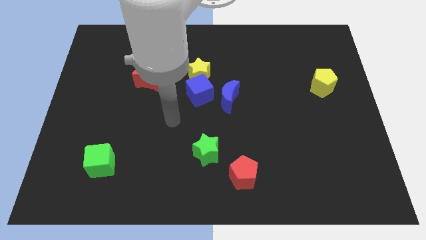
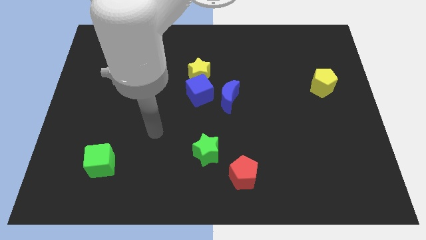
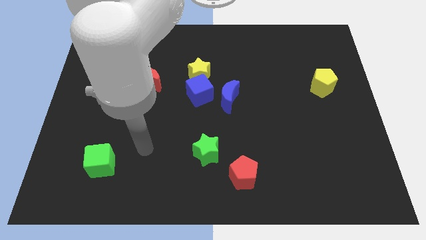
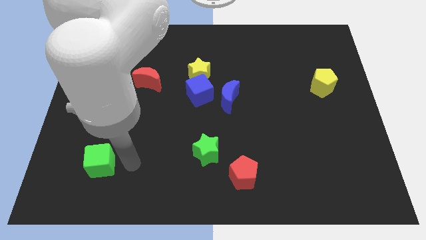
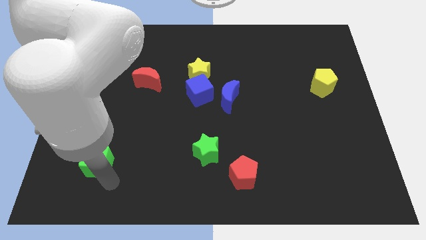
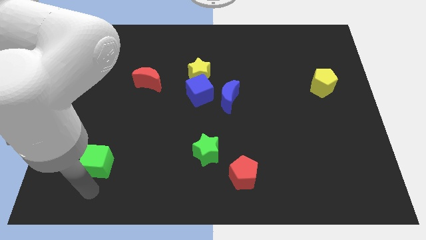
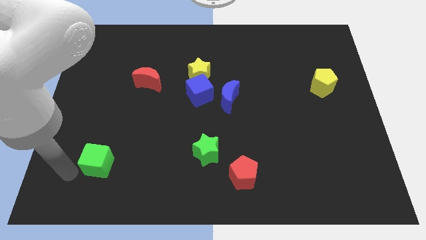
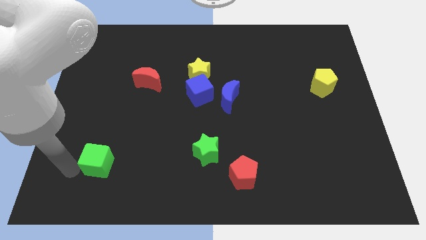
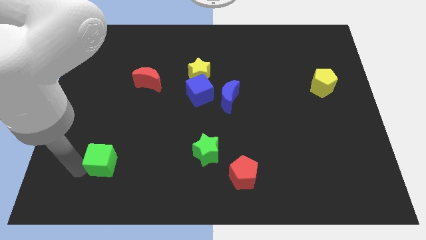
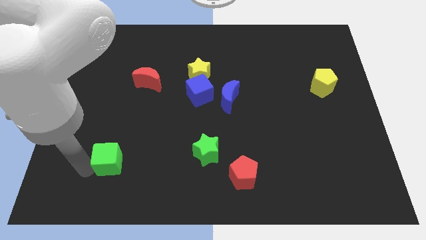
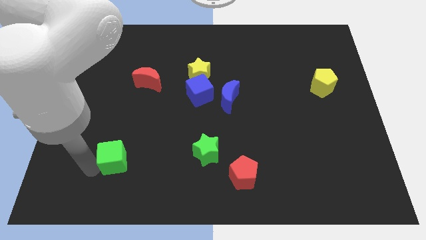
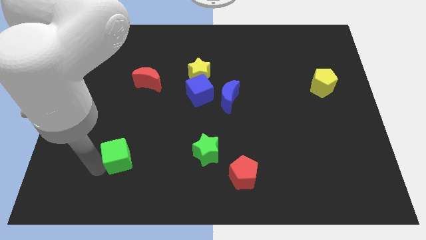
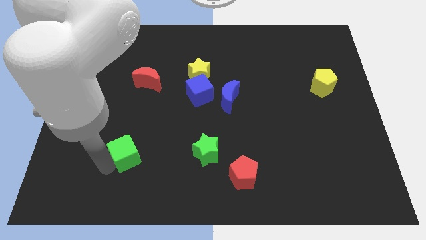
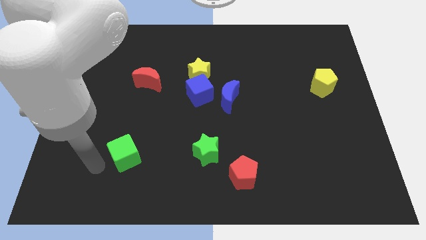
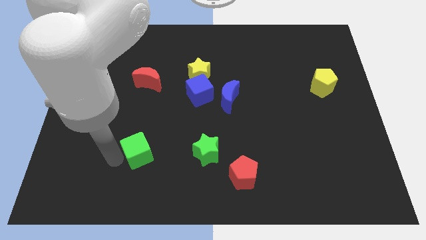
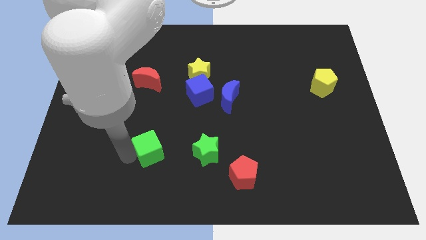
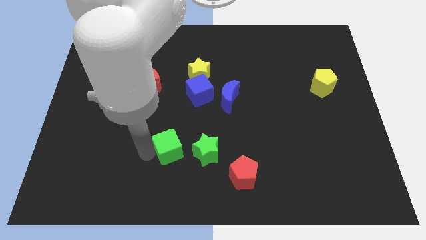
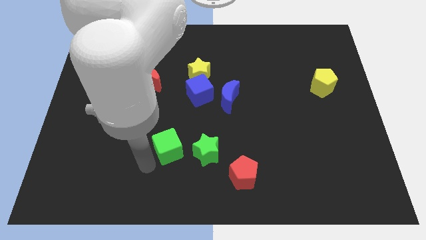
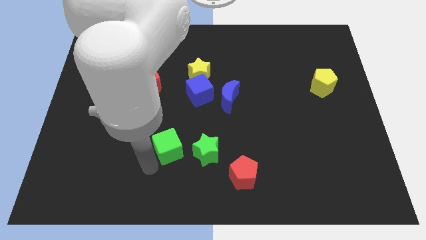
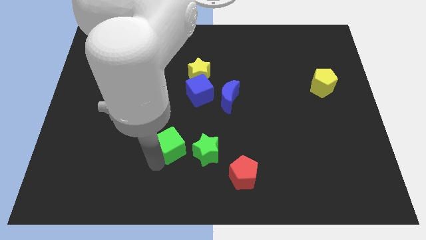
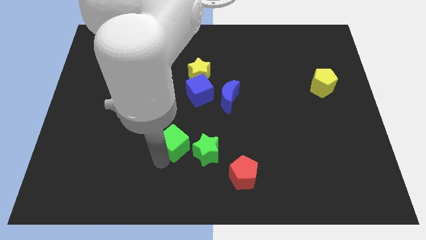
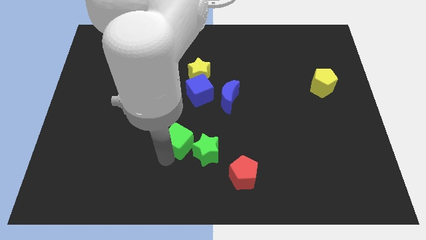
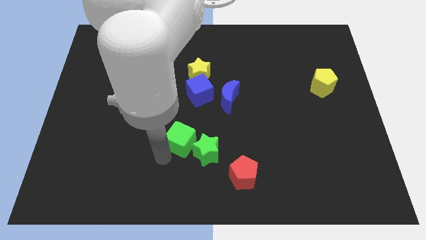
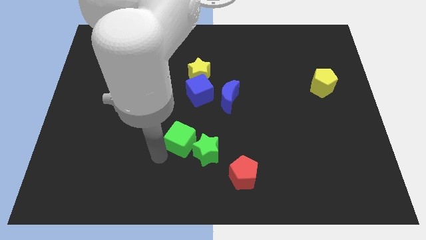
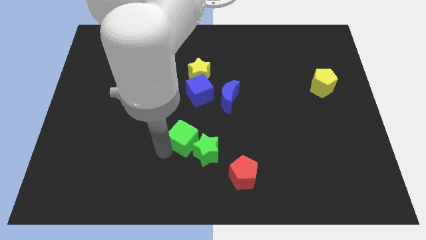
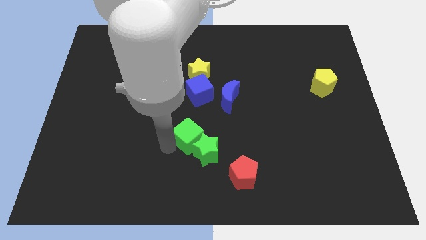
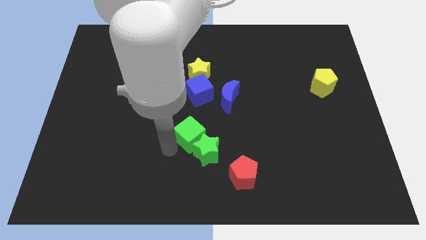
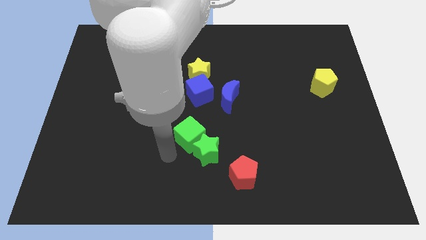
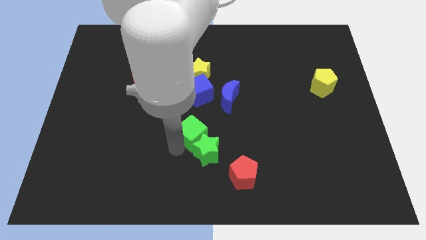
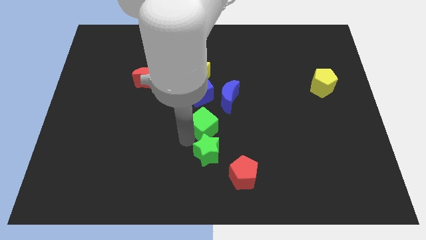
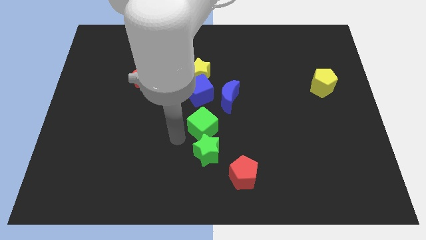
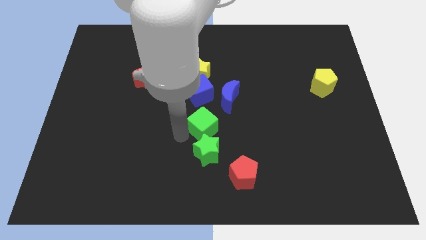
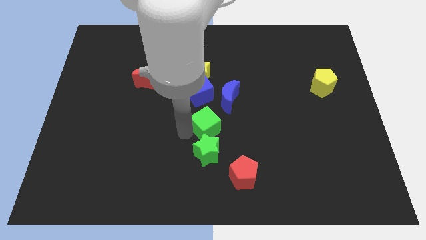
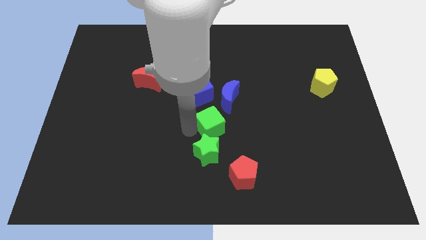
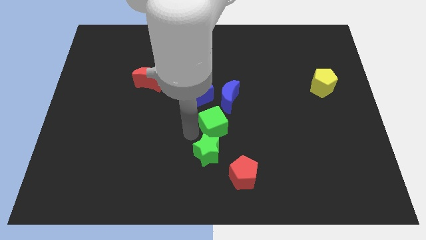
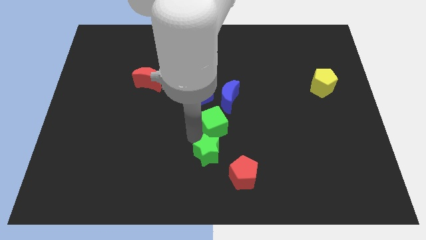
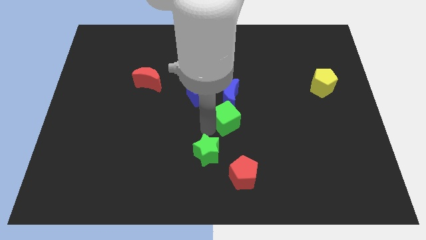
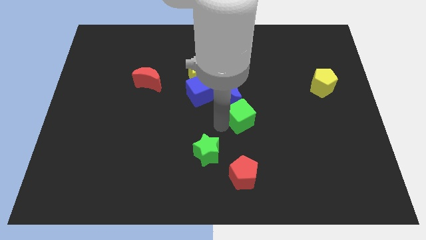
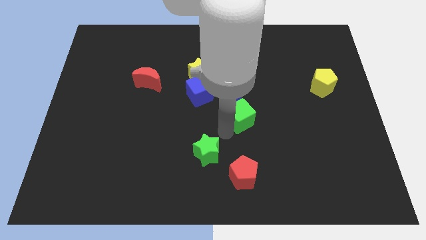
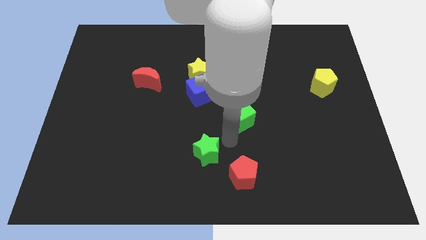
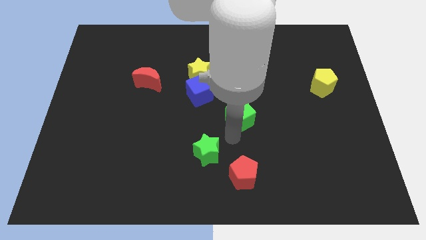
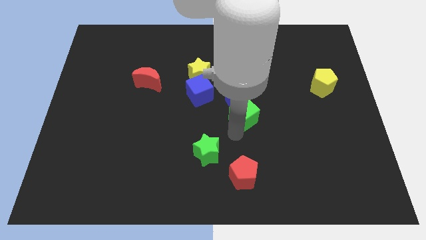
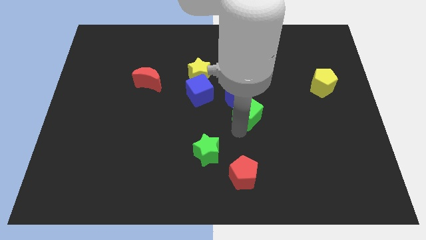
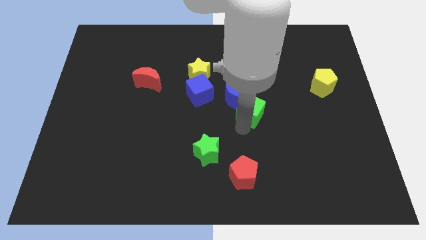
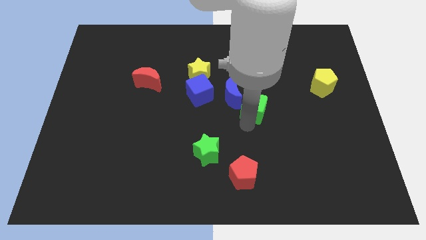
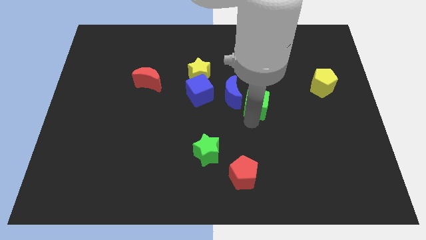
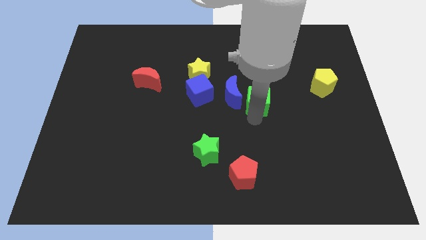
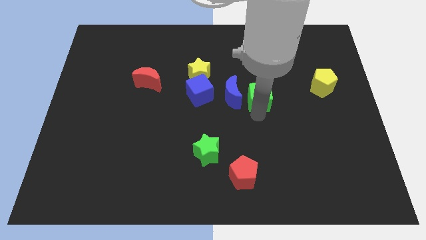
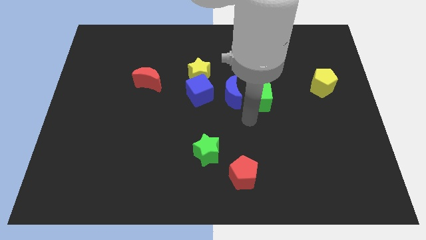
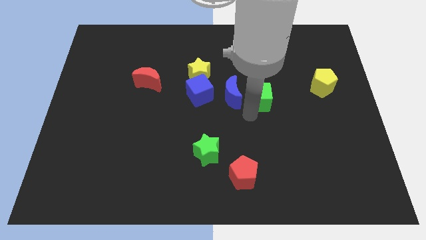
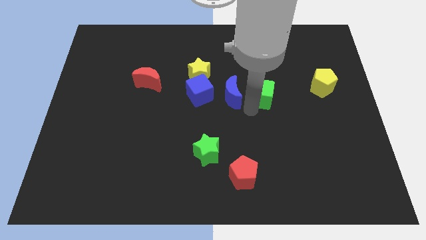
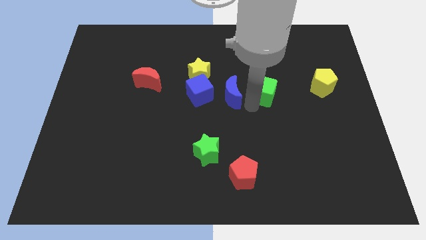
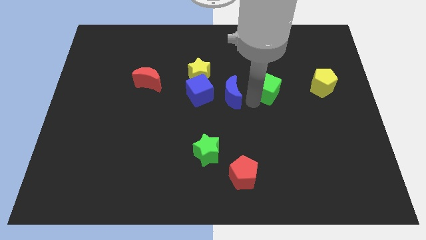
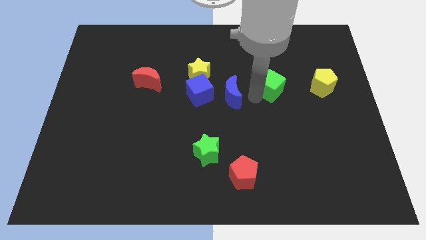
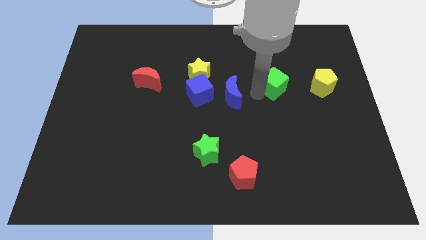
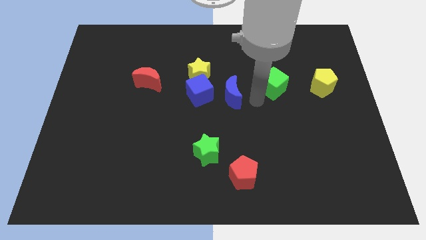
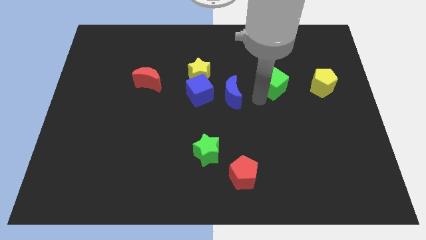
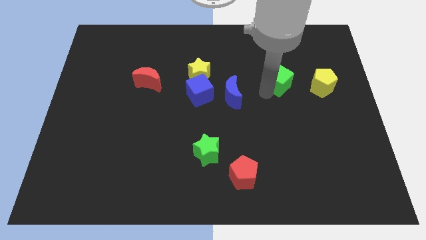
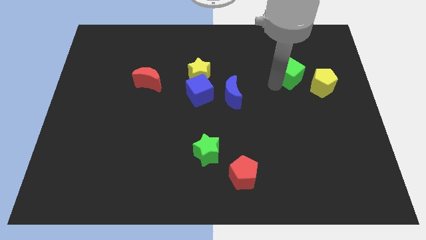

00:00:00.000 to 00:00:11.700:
push the green cube to the top left of the yellow pentagon

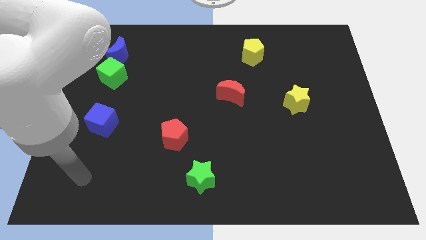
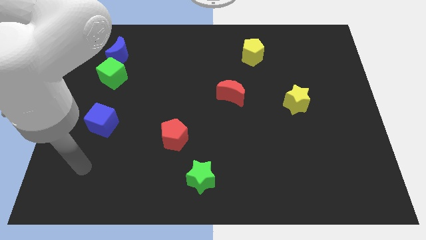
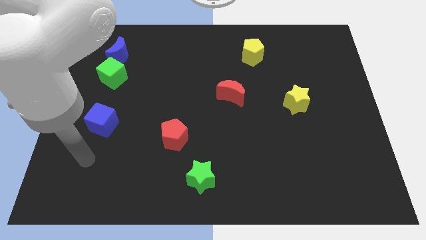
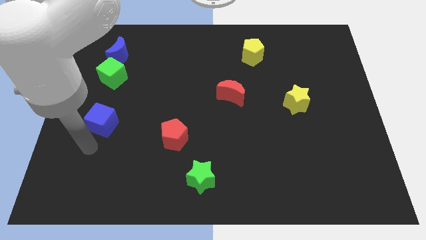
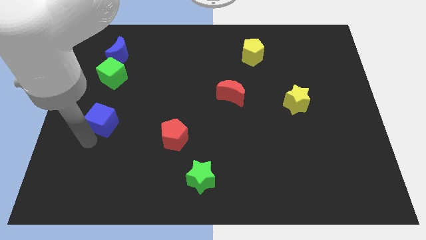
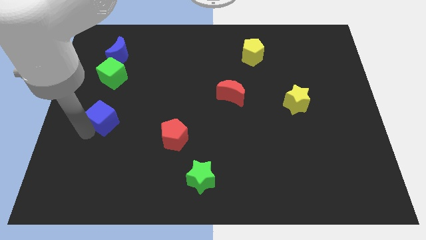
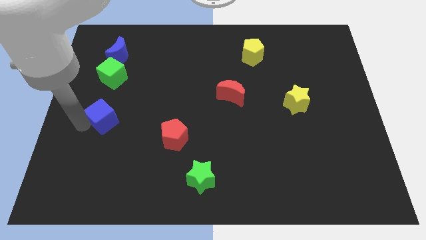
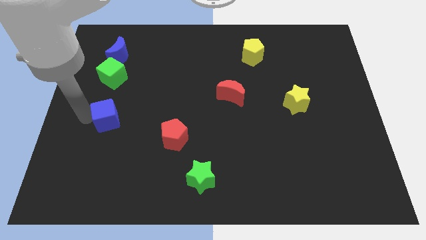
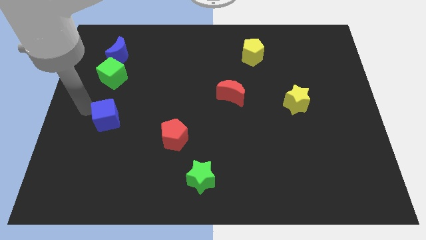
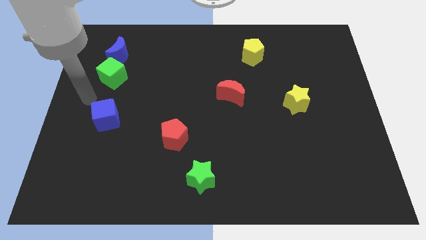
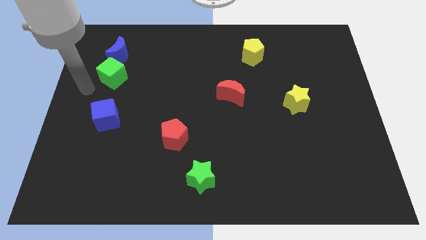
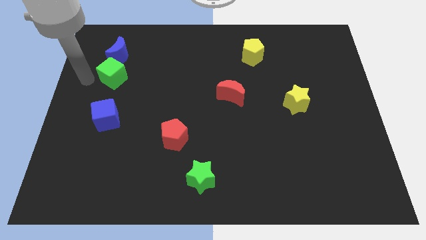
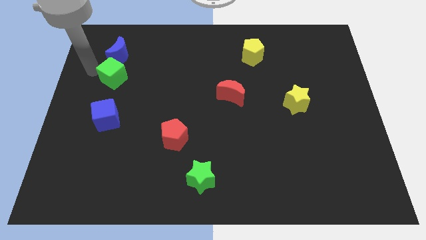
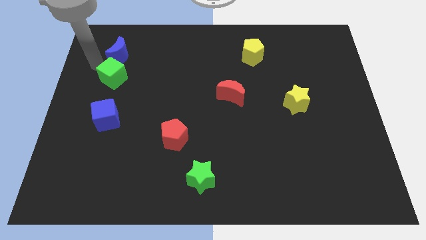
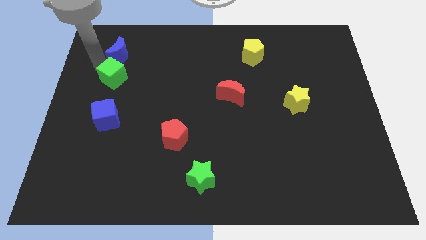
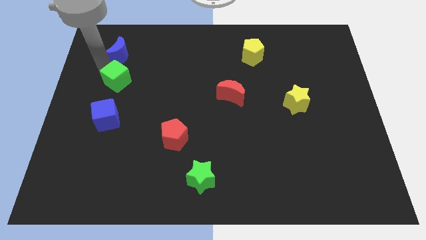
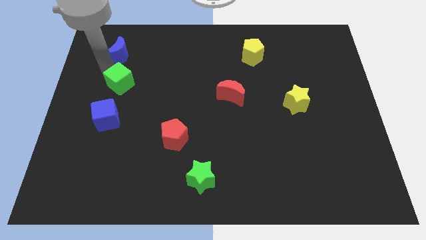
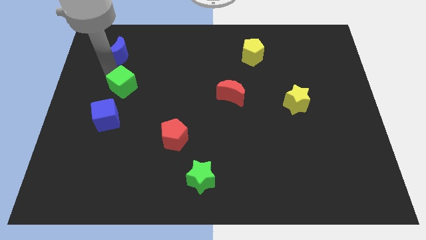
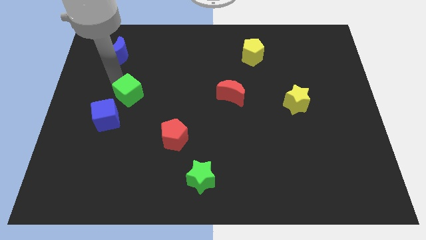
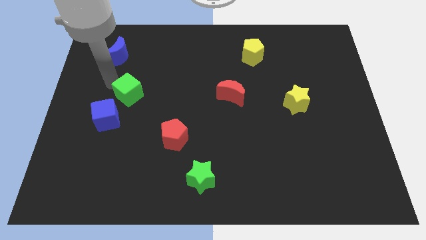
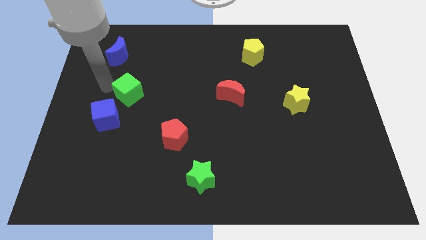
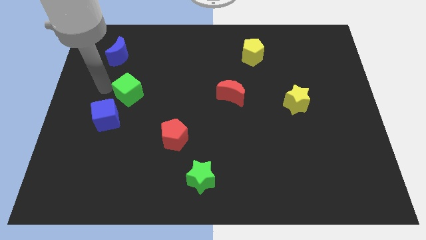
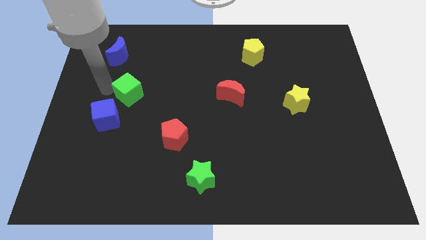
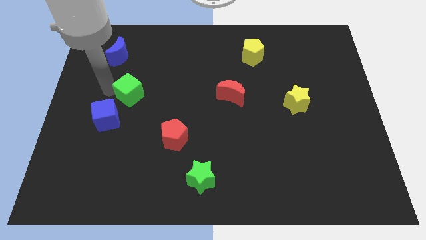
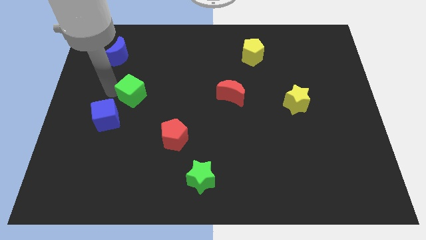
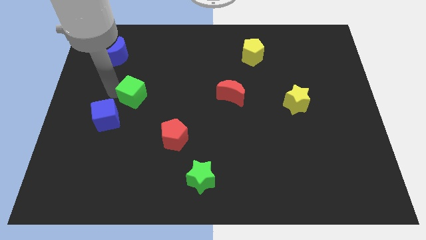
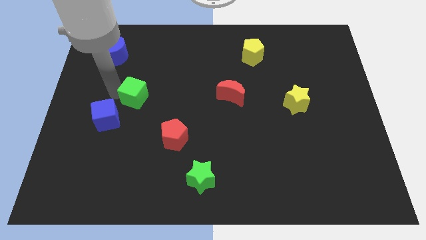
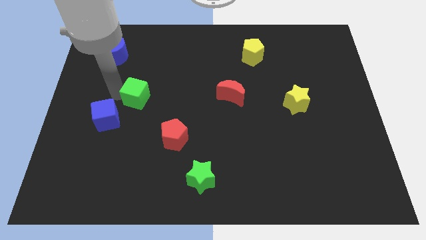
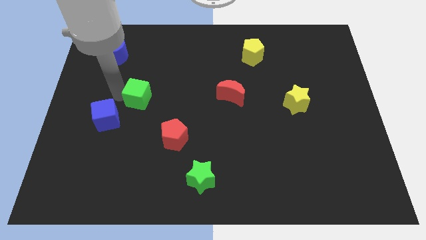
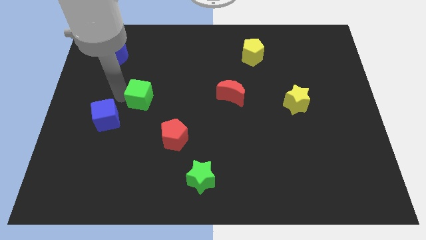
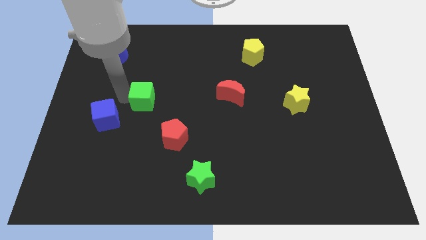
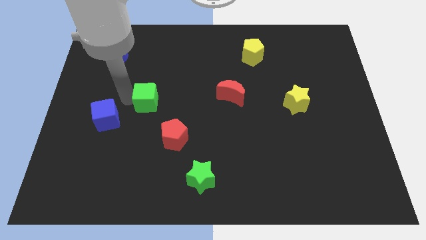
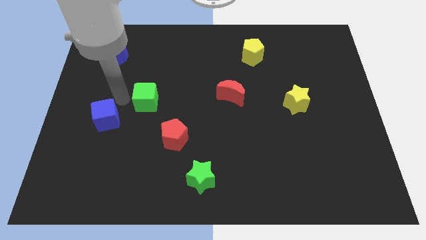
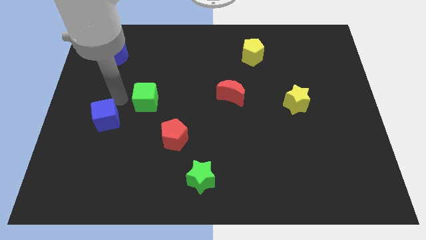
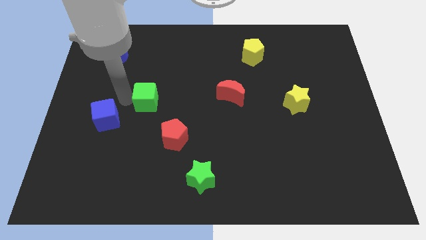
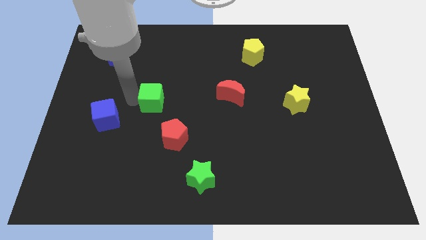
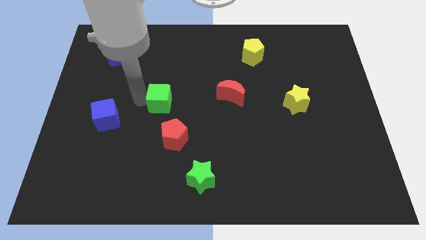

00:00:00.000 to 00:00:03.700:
put the green cube to the top of the red pentagon
